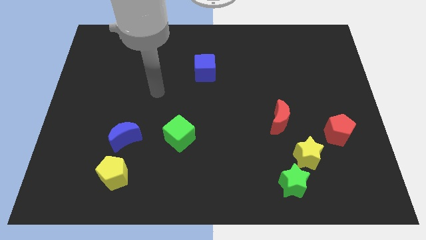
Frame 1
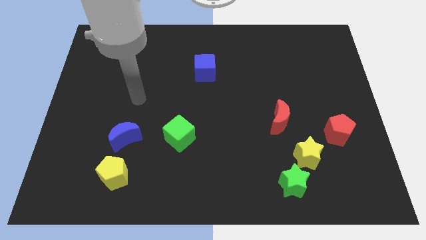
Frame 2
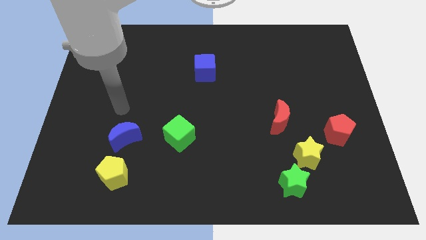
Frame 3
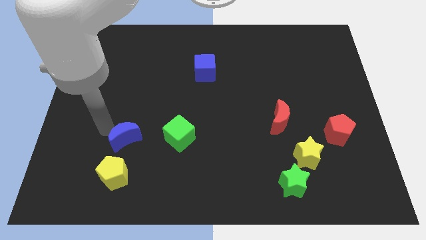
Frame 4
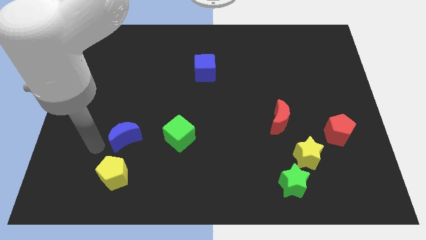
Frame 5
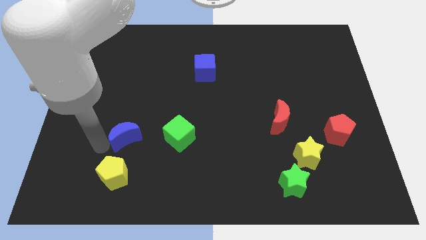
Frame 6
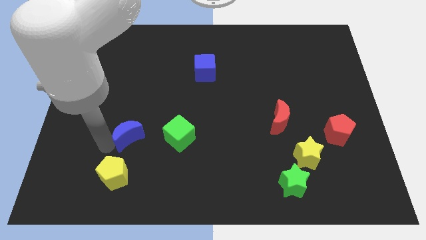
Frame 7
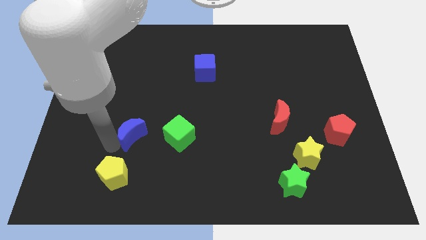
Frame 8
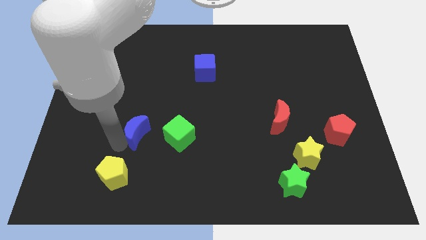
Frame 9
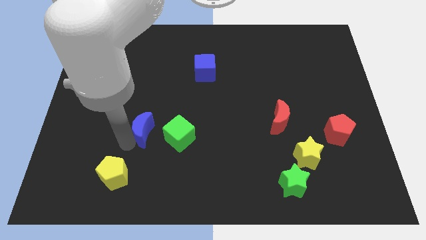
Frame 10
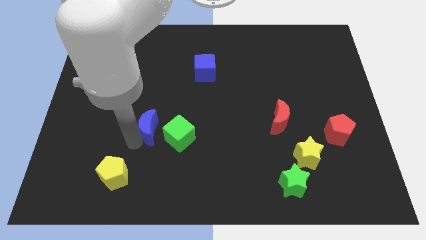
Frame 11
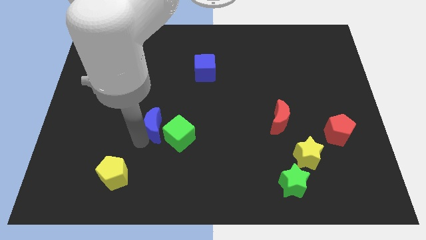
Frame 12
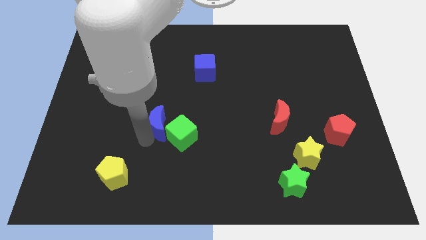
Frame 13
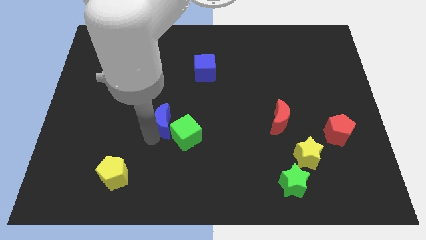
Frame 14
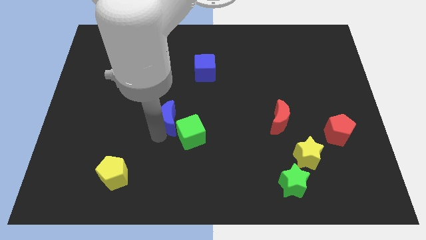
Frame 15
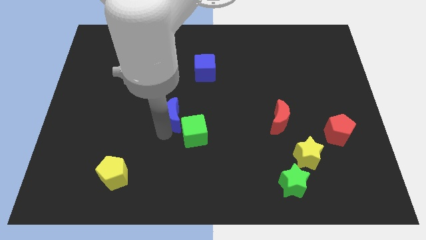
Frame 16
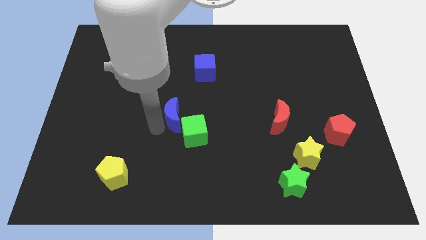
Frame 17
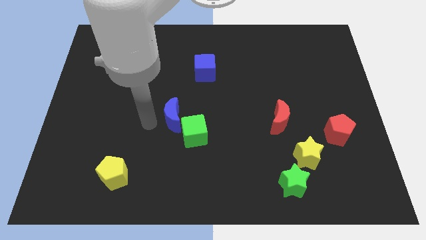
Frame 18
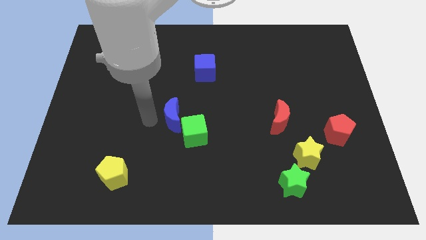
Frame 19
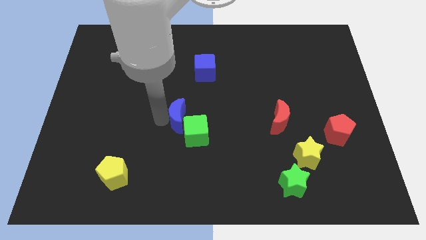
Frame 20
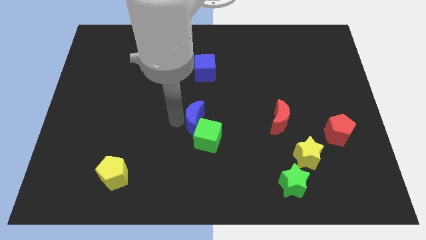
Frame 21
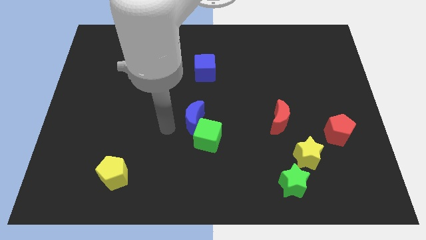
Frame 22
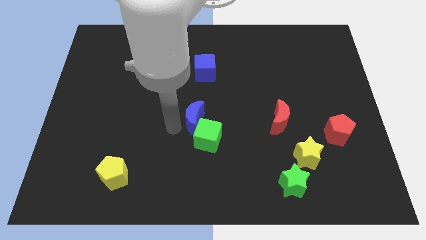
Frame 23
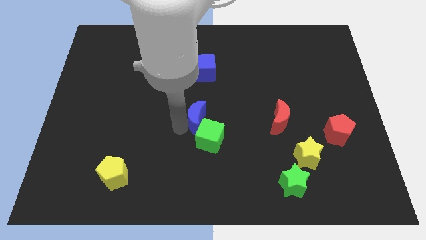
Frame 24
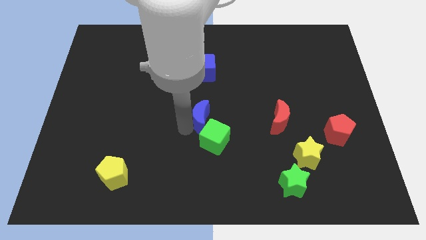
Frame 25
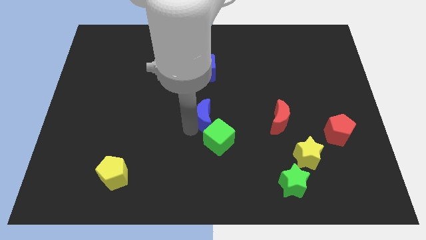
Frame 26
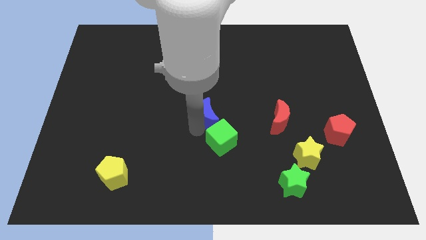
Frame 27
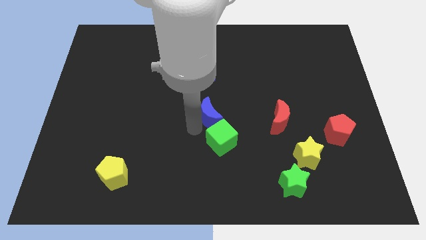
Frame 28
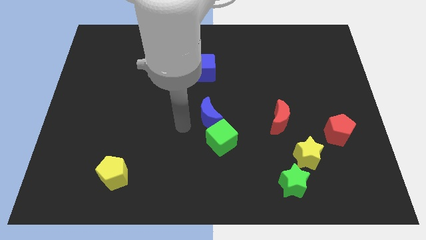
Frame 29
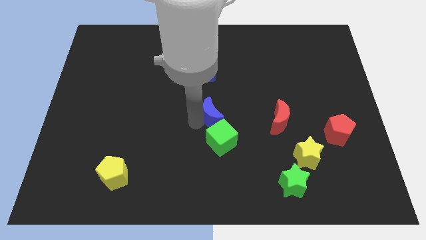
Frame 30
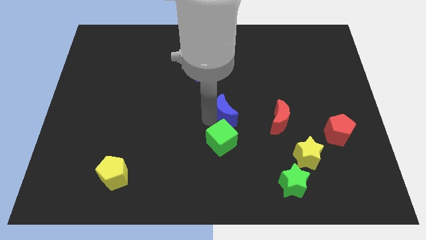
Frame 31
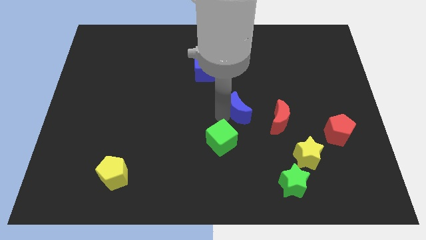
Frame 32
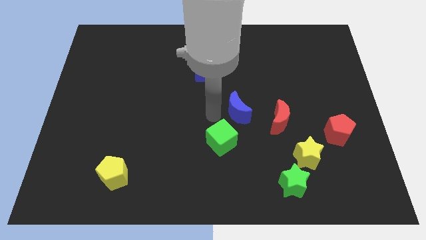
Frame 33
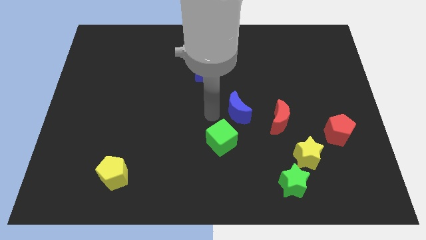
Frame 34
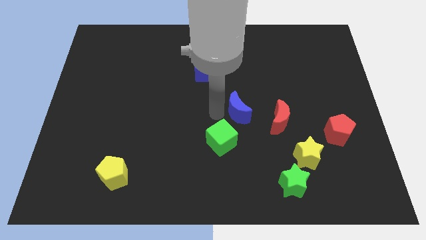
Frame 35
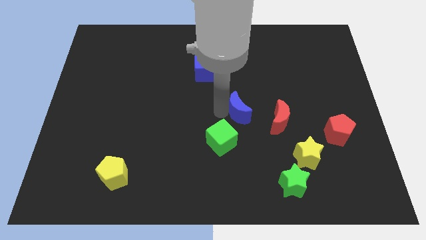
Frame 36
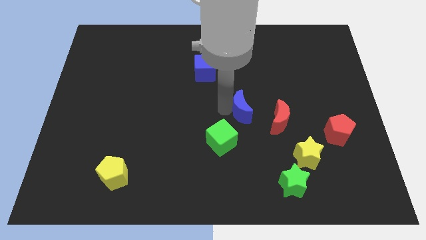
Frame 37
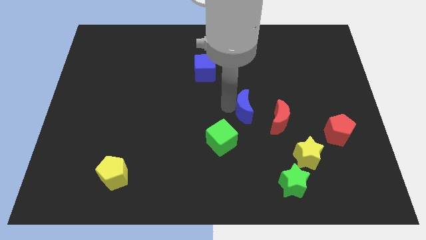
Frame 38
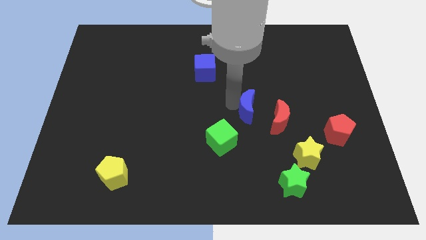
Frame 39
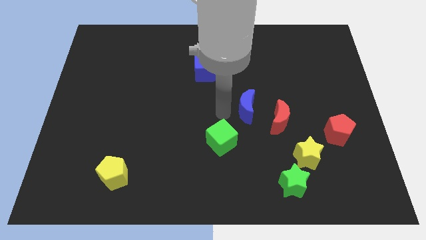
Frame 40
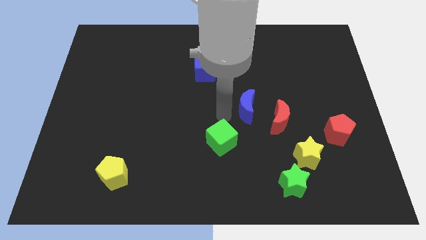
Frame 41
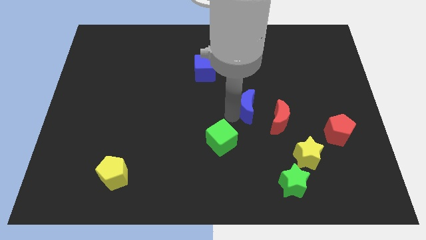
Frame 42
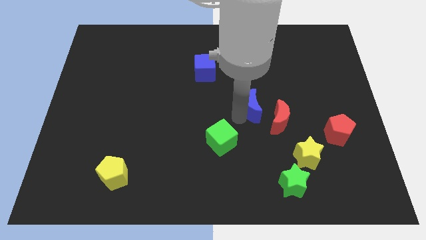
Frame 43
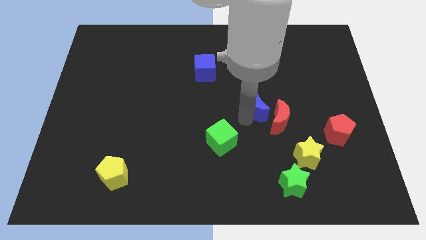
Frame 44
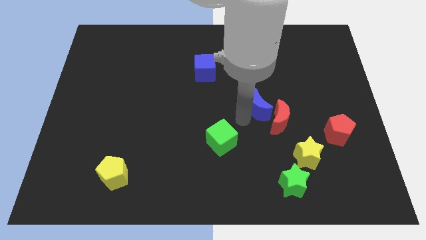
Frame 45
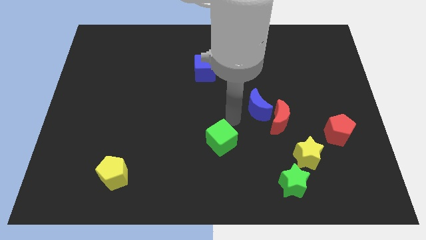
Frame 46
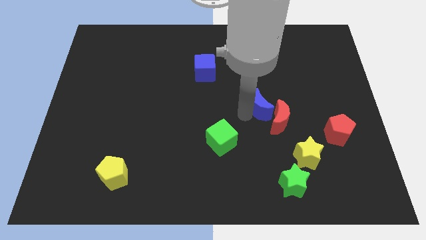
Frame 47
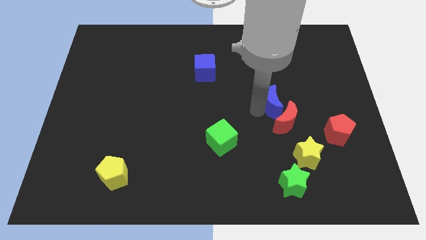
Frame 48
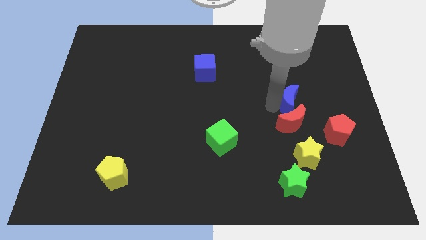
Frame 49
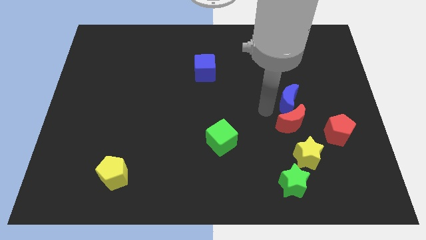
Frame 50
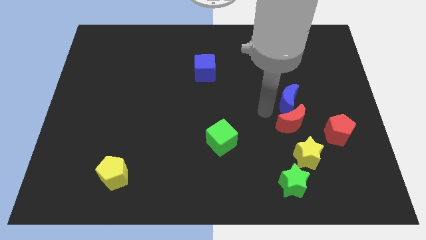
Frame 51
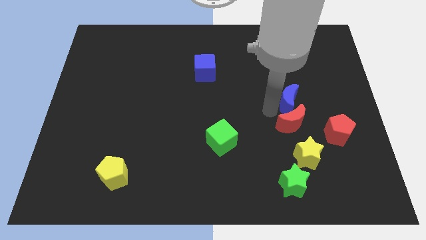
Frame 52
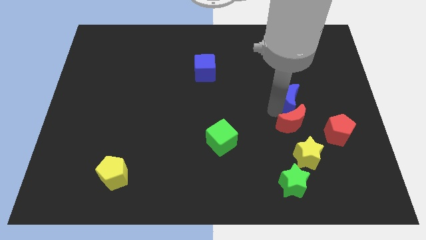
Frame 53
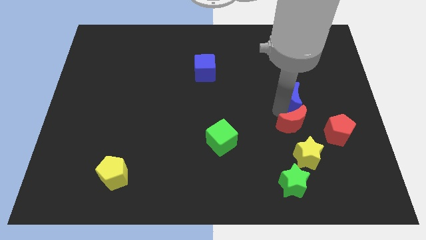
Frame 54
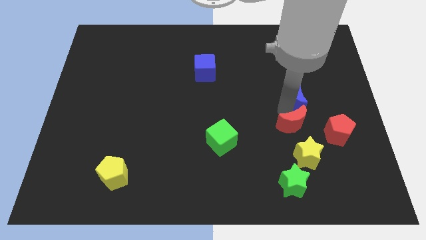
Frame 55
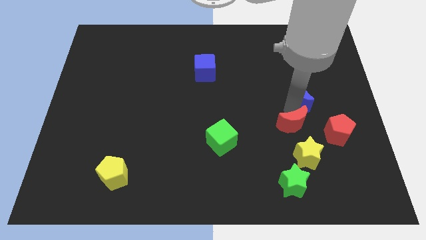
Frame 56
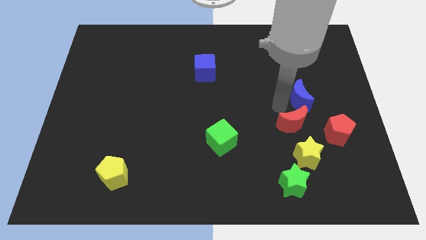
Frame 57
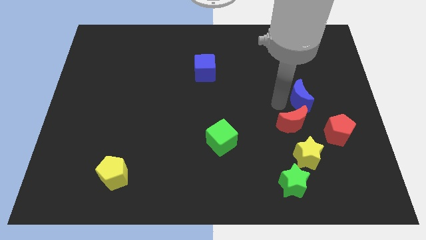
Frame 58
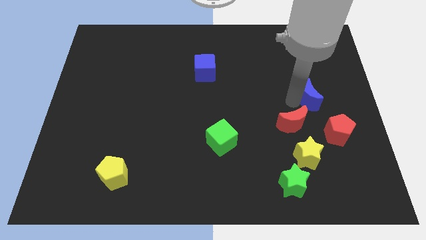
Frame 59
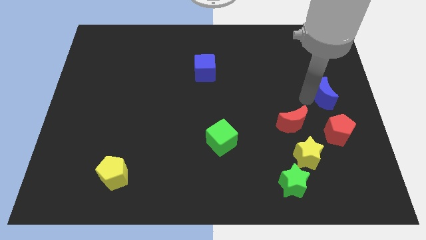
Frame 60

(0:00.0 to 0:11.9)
push the blue moon to the center right
